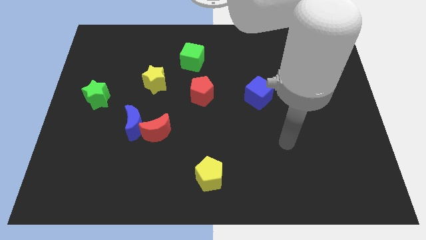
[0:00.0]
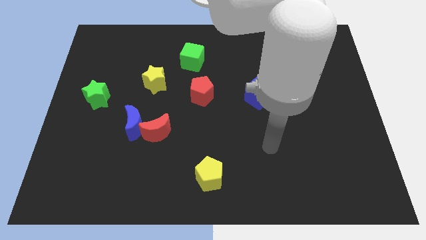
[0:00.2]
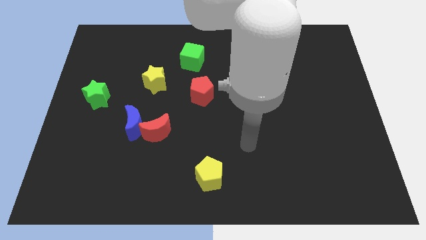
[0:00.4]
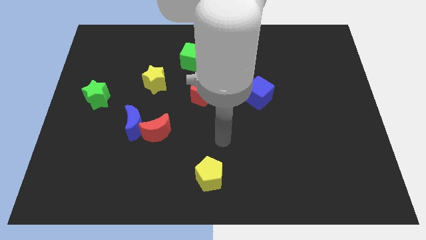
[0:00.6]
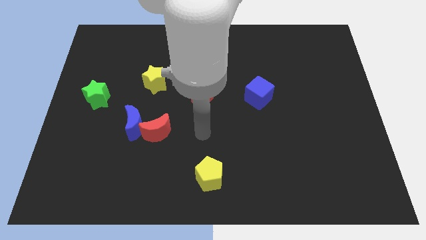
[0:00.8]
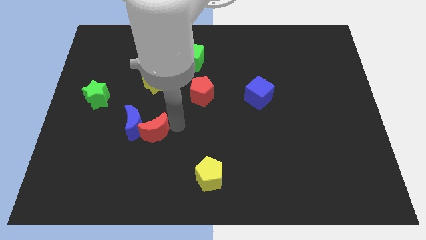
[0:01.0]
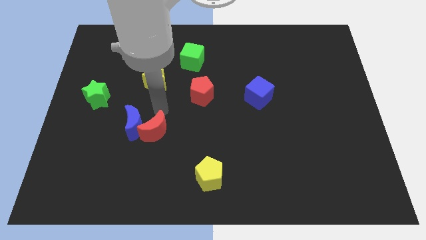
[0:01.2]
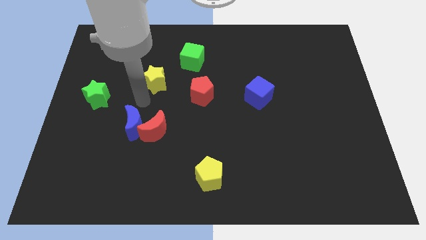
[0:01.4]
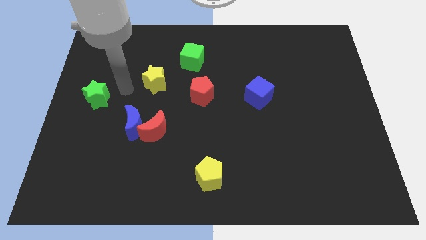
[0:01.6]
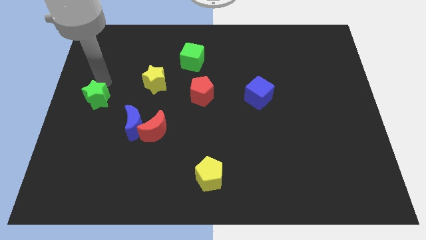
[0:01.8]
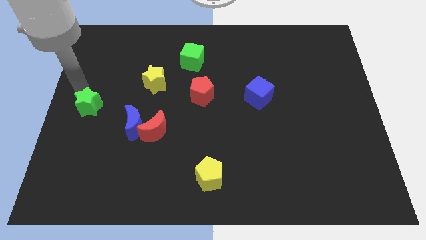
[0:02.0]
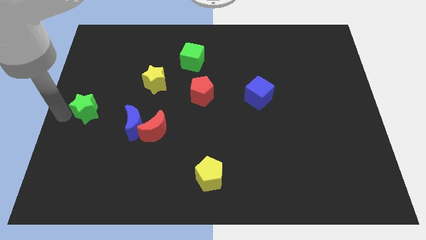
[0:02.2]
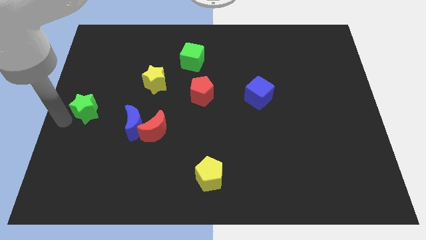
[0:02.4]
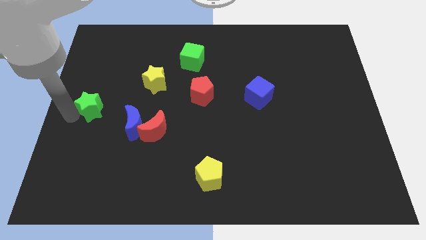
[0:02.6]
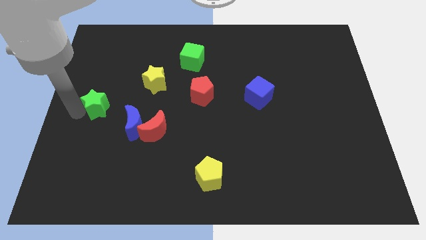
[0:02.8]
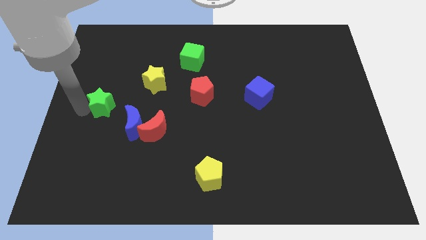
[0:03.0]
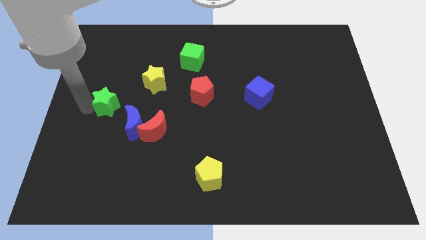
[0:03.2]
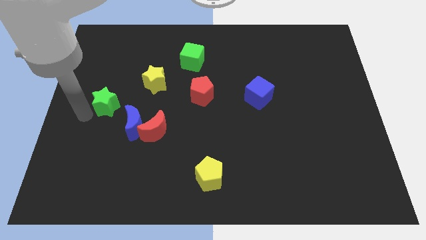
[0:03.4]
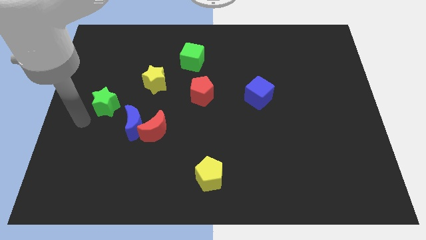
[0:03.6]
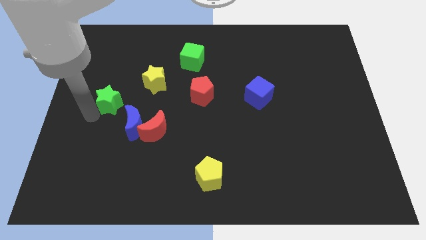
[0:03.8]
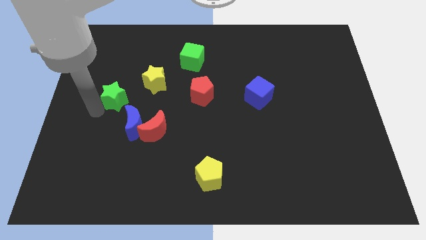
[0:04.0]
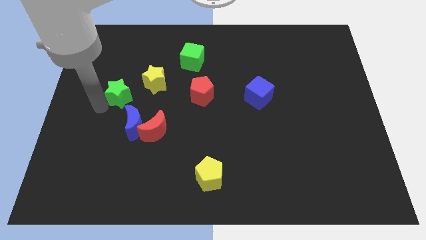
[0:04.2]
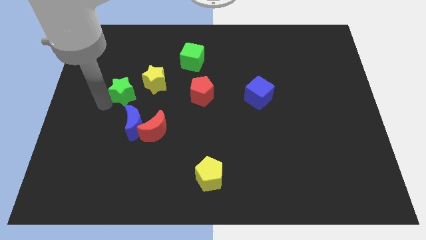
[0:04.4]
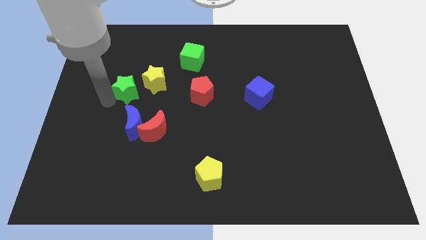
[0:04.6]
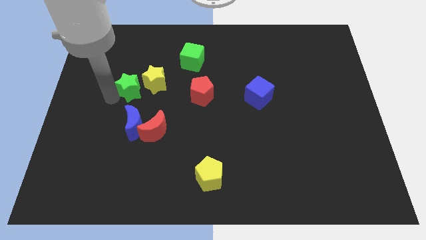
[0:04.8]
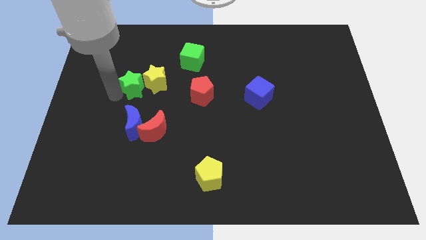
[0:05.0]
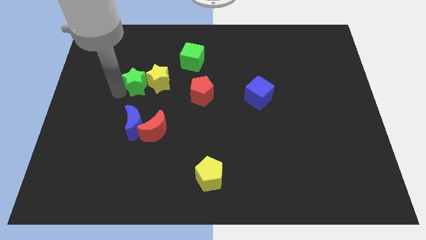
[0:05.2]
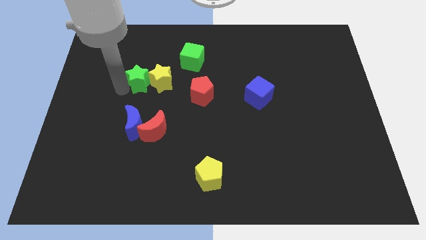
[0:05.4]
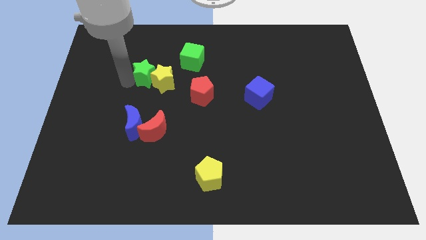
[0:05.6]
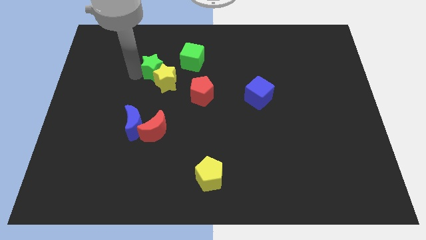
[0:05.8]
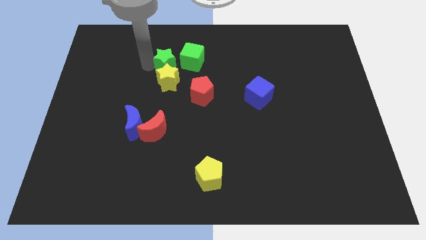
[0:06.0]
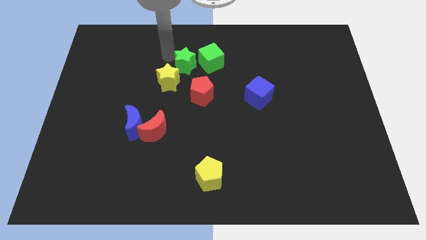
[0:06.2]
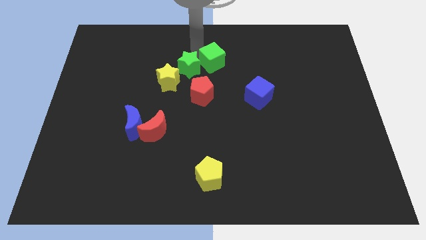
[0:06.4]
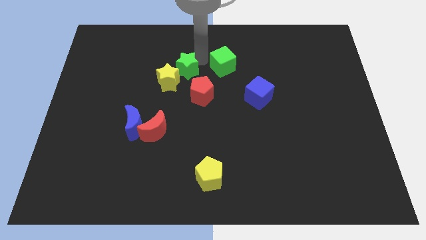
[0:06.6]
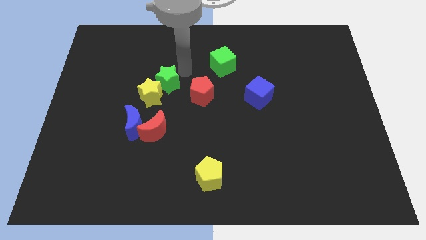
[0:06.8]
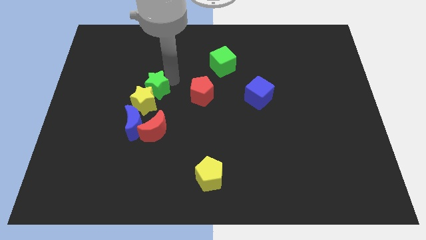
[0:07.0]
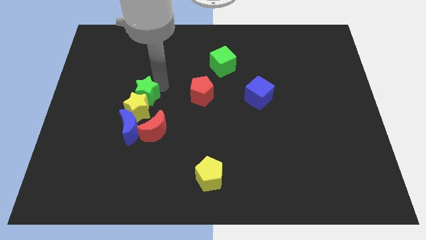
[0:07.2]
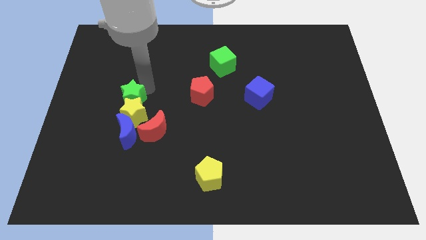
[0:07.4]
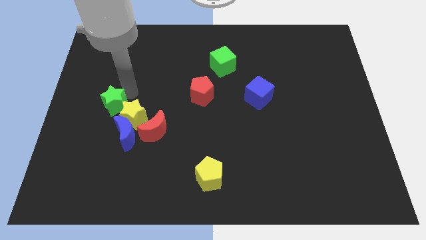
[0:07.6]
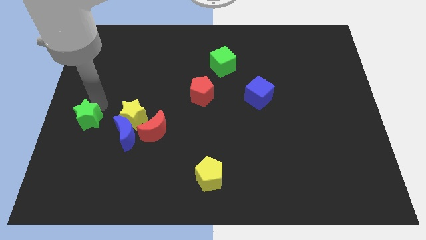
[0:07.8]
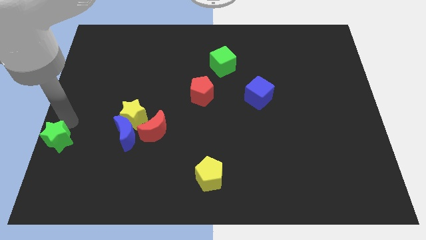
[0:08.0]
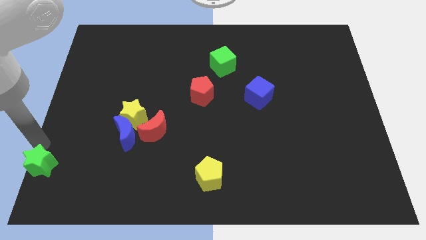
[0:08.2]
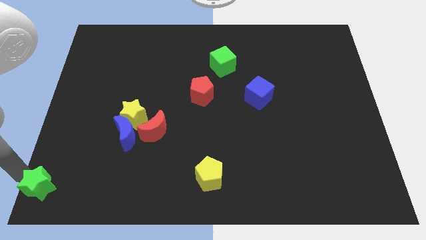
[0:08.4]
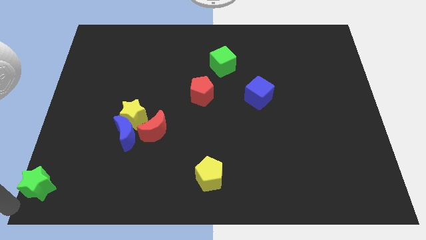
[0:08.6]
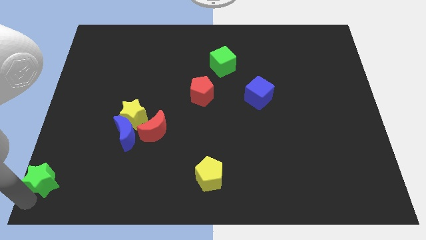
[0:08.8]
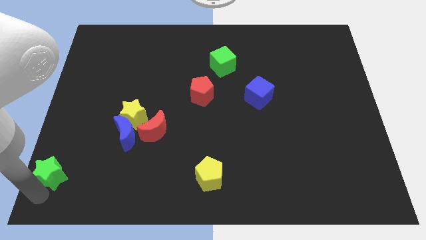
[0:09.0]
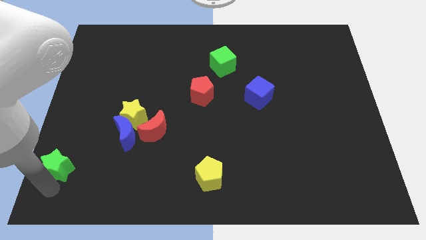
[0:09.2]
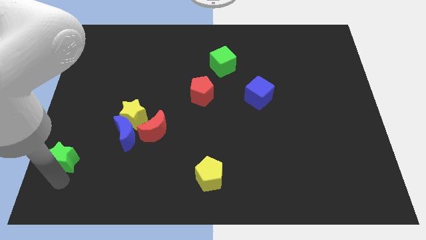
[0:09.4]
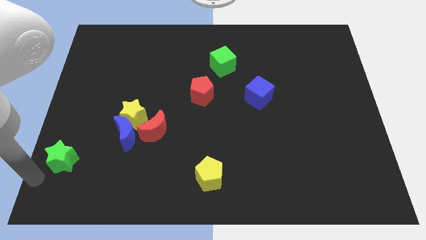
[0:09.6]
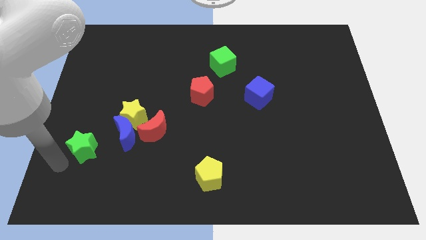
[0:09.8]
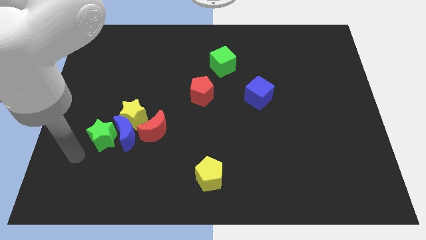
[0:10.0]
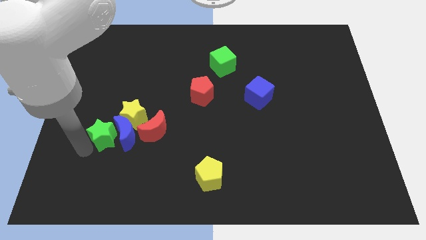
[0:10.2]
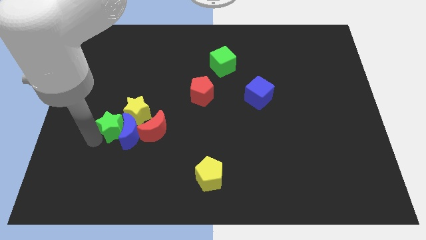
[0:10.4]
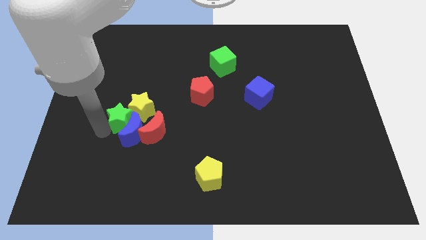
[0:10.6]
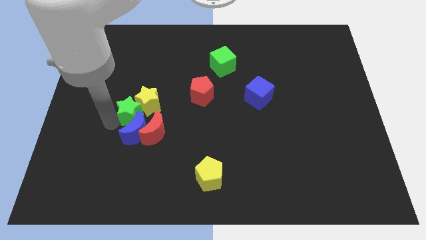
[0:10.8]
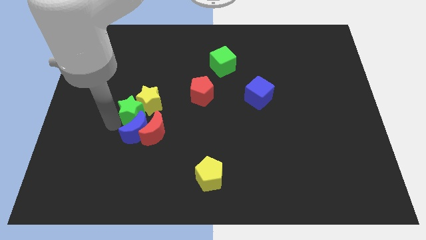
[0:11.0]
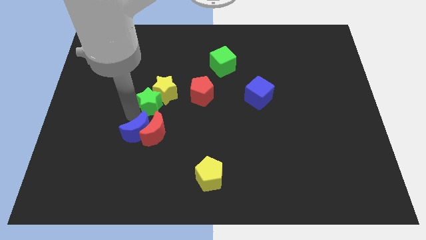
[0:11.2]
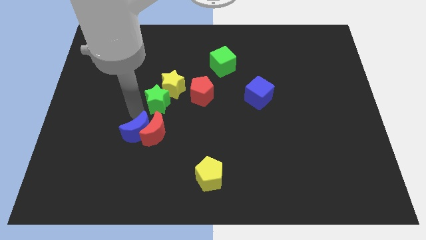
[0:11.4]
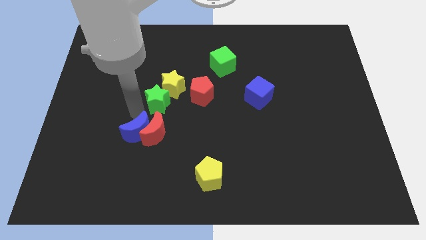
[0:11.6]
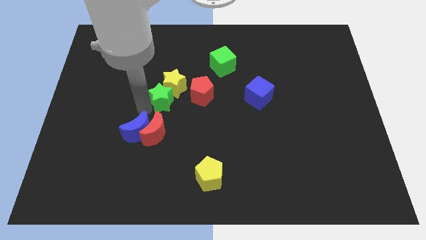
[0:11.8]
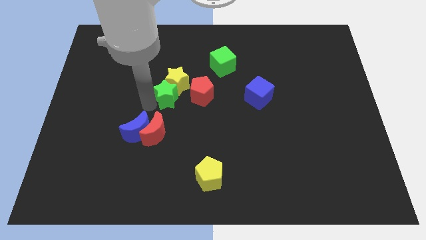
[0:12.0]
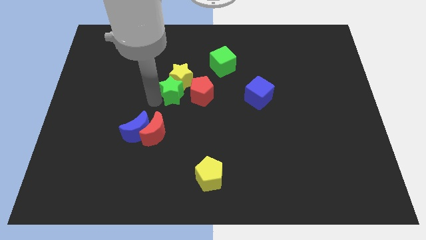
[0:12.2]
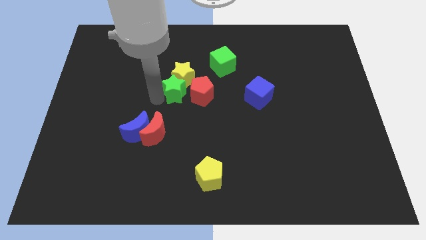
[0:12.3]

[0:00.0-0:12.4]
slide the green star towards the red pentagon

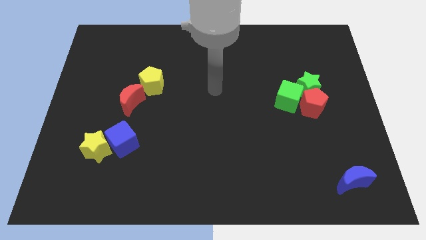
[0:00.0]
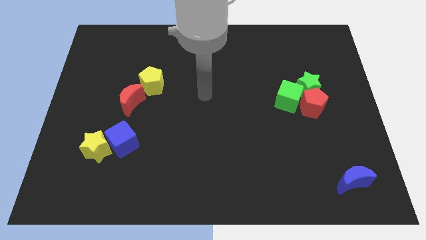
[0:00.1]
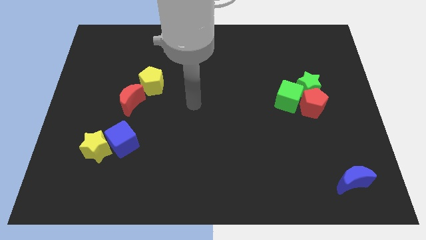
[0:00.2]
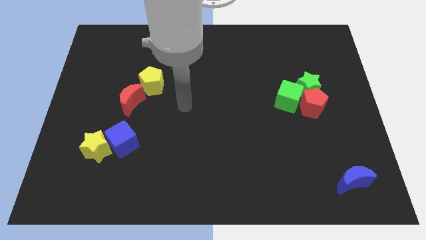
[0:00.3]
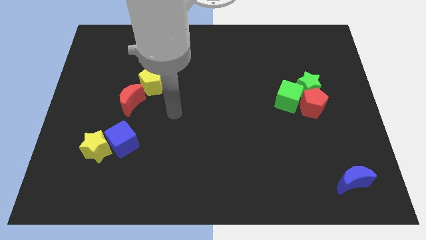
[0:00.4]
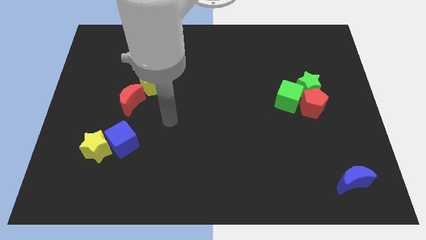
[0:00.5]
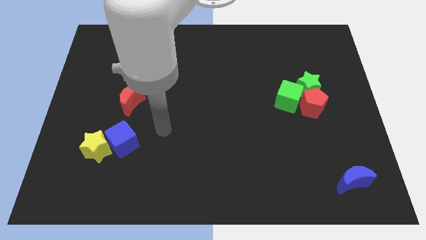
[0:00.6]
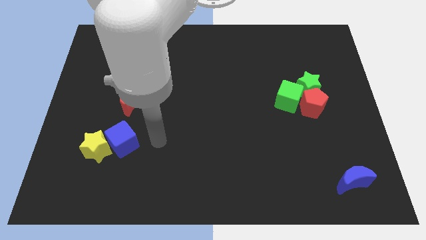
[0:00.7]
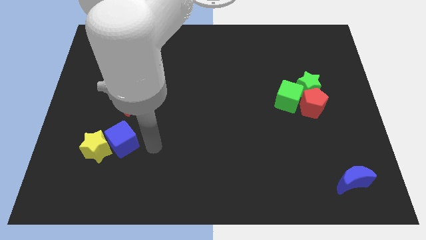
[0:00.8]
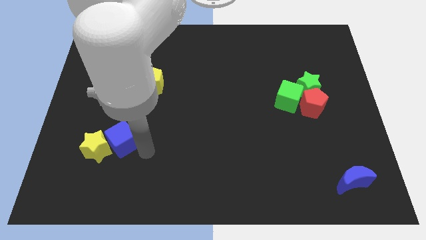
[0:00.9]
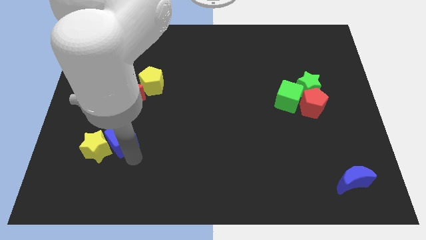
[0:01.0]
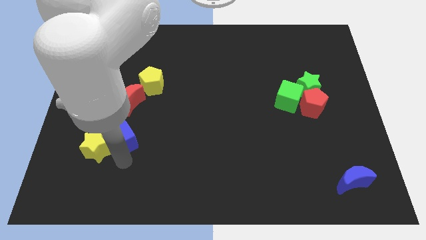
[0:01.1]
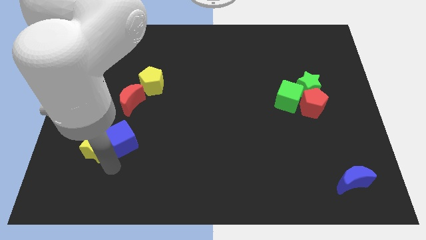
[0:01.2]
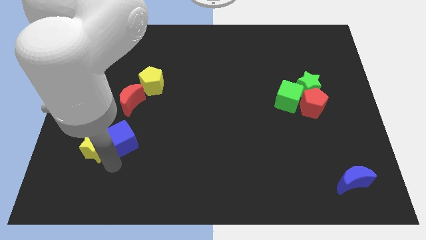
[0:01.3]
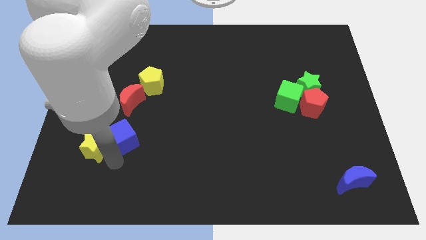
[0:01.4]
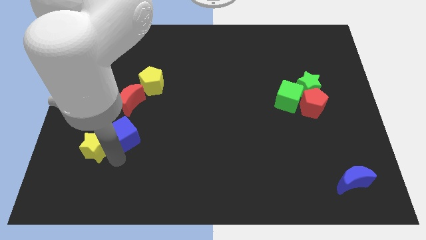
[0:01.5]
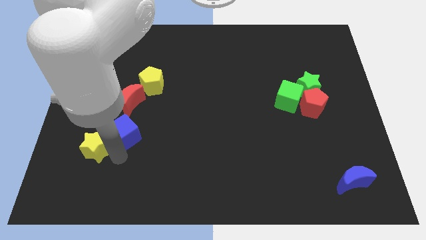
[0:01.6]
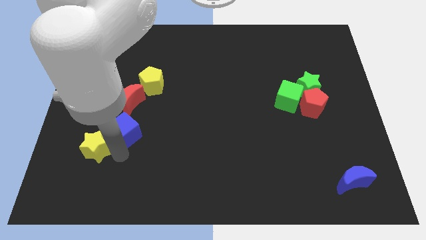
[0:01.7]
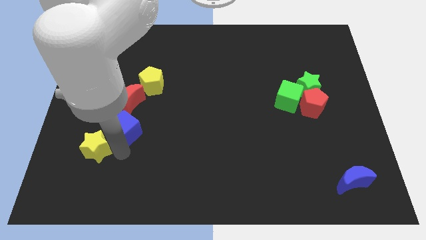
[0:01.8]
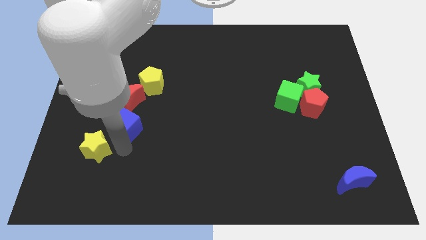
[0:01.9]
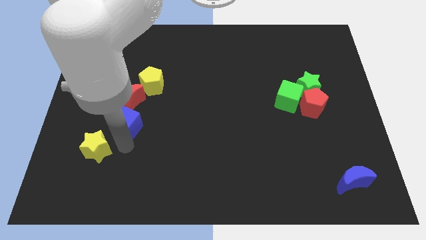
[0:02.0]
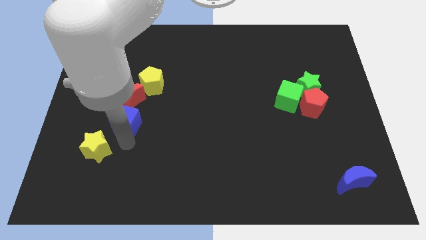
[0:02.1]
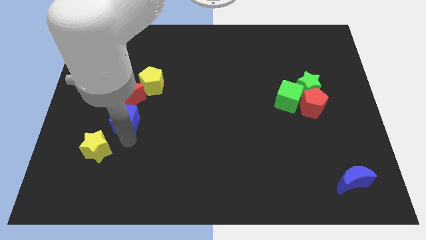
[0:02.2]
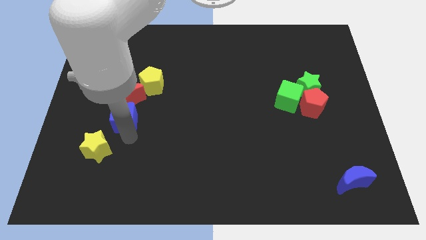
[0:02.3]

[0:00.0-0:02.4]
push the blue cube close to the red moon
